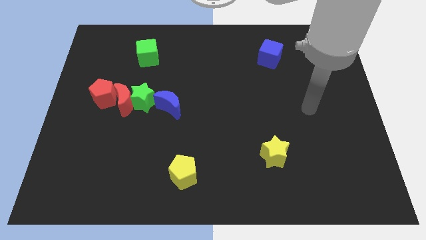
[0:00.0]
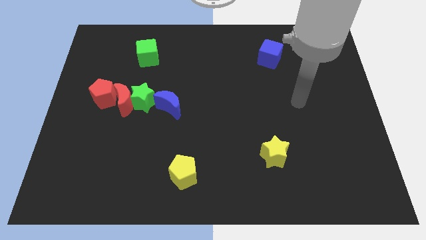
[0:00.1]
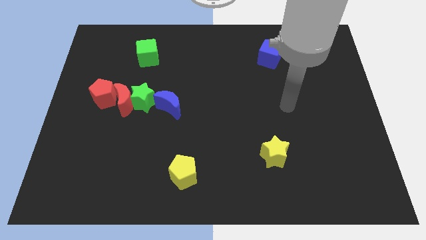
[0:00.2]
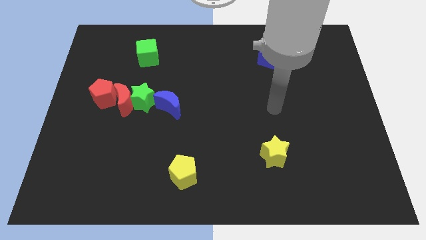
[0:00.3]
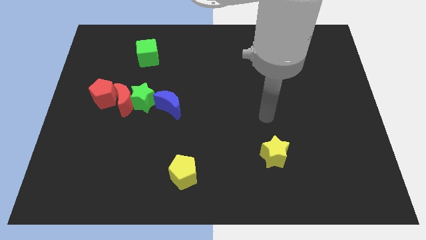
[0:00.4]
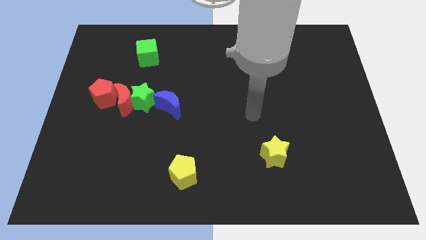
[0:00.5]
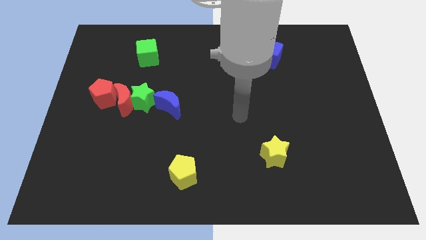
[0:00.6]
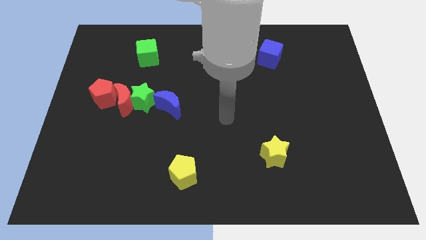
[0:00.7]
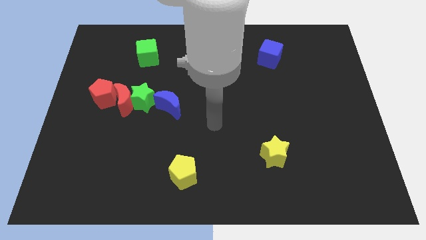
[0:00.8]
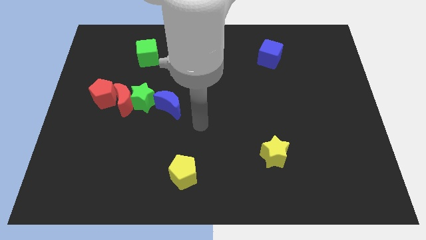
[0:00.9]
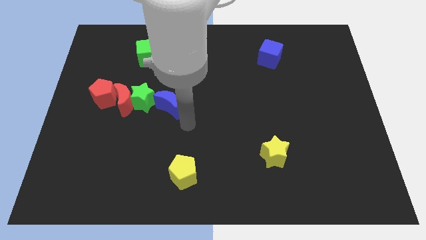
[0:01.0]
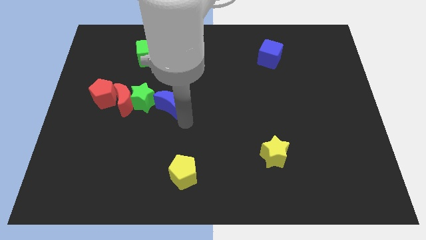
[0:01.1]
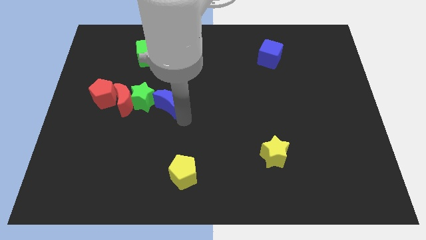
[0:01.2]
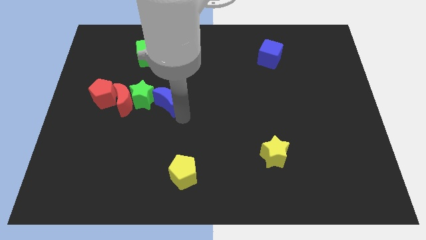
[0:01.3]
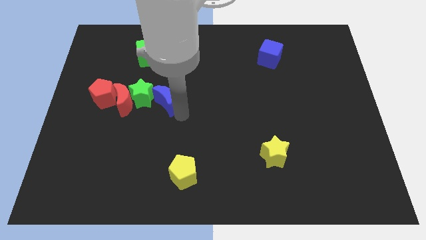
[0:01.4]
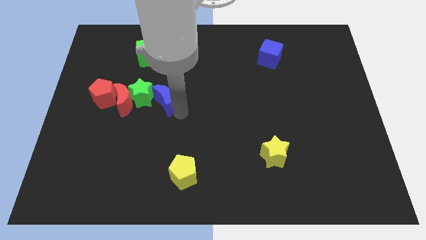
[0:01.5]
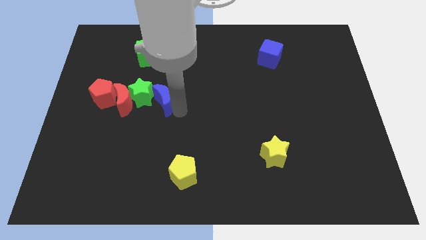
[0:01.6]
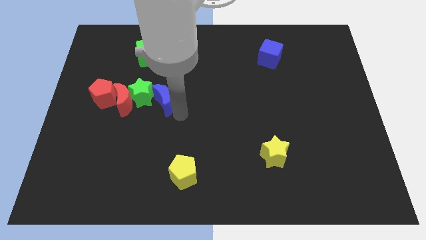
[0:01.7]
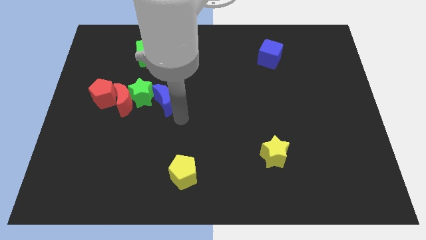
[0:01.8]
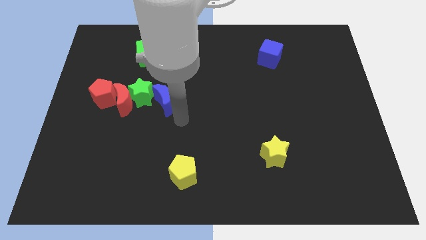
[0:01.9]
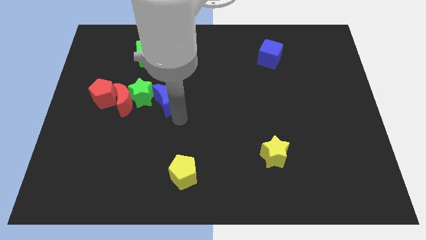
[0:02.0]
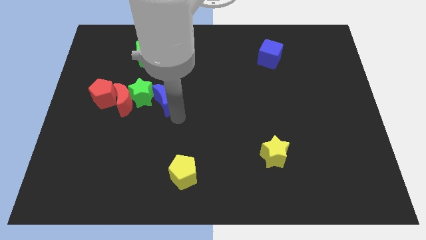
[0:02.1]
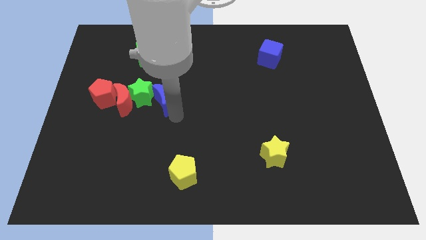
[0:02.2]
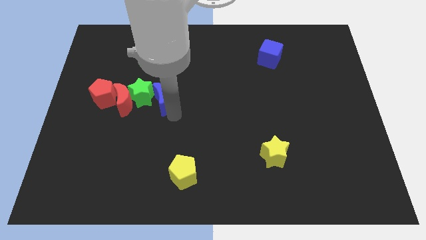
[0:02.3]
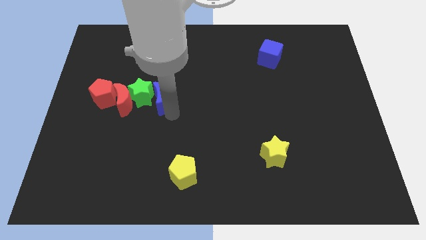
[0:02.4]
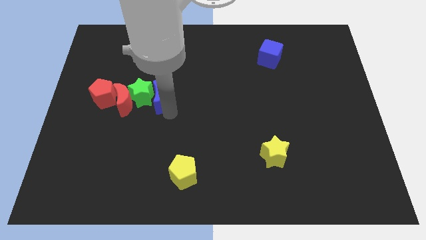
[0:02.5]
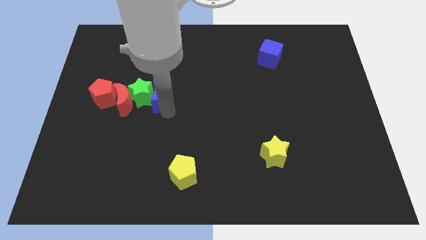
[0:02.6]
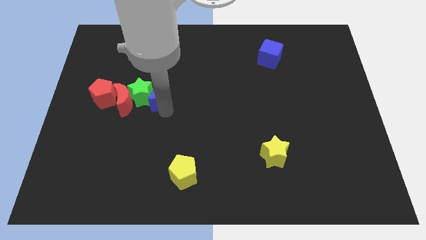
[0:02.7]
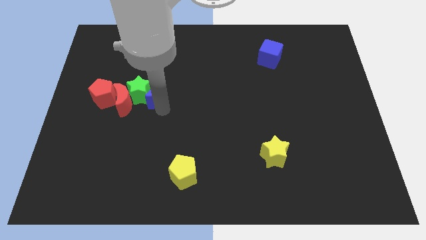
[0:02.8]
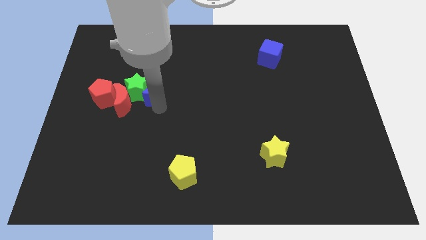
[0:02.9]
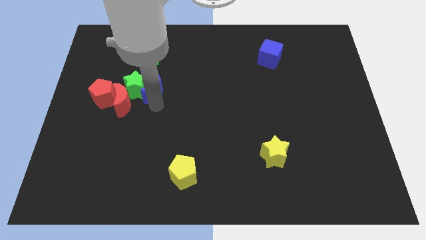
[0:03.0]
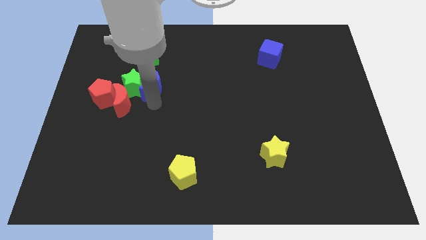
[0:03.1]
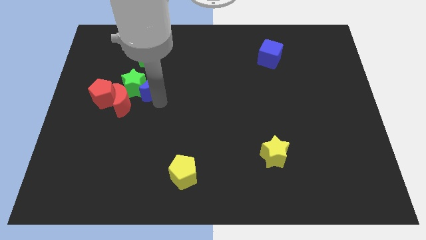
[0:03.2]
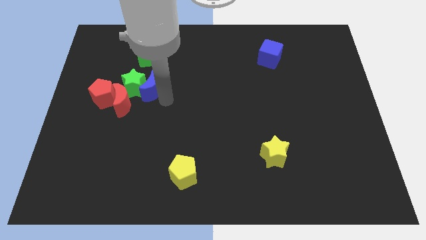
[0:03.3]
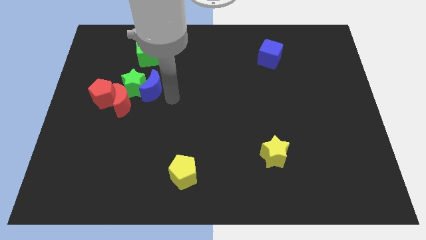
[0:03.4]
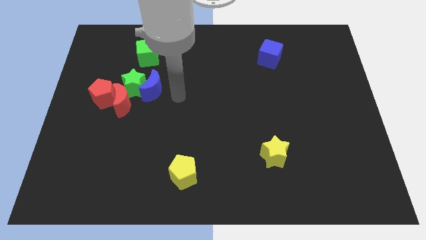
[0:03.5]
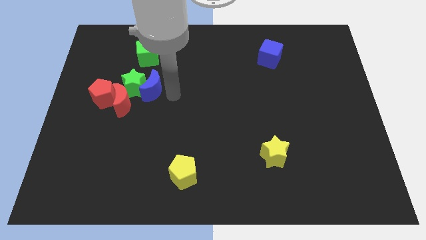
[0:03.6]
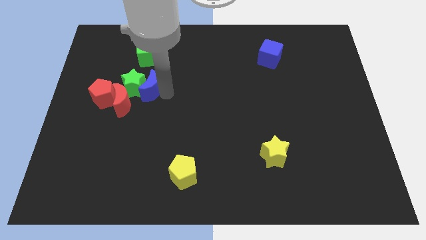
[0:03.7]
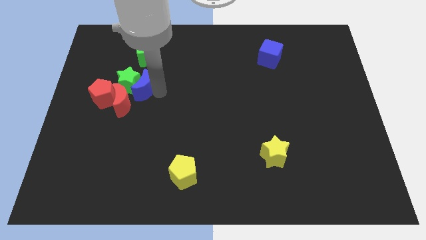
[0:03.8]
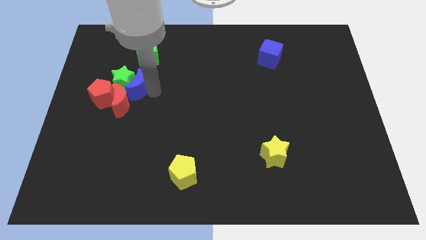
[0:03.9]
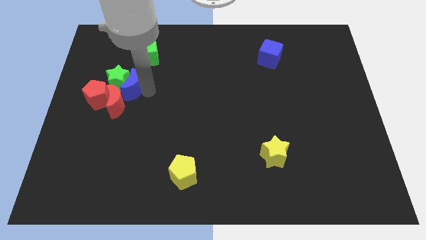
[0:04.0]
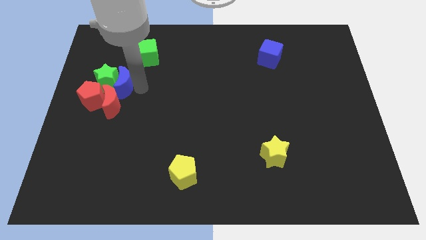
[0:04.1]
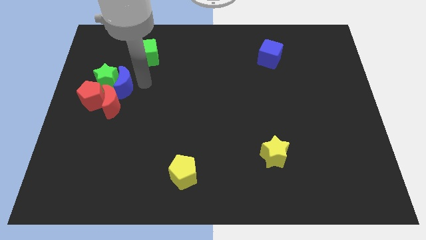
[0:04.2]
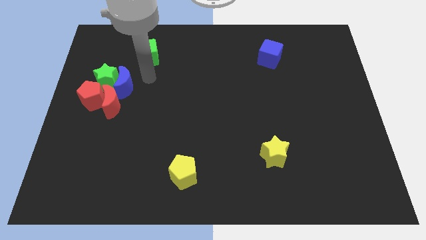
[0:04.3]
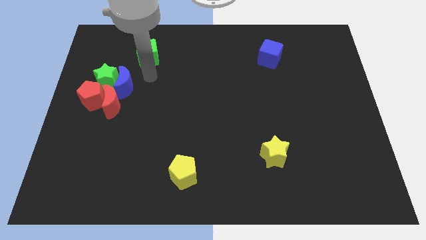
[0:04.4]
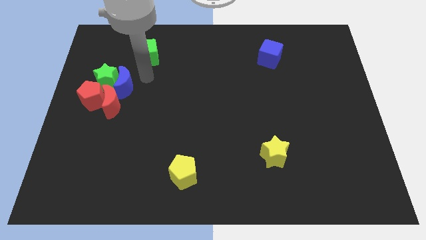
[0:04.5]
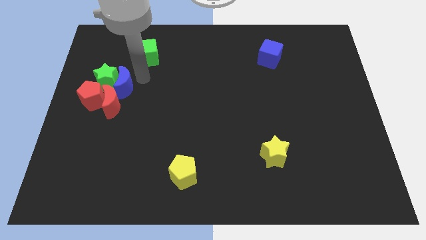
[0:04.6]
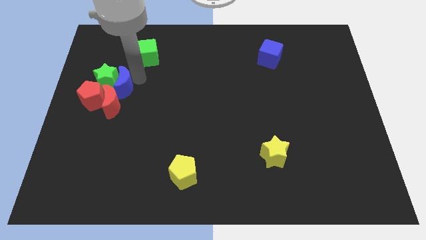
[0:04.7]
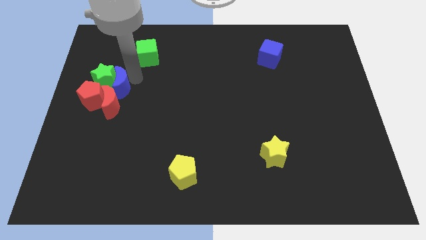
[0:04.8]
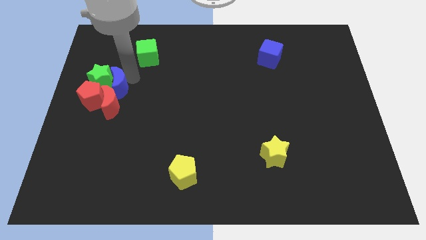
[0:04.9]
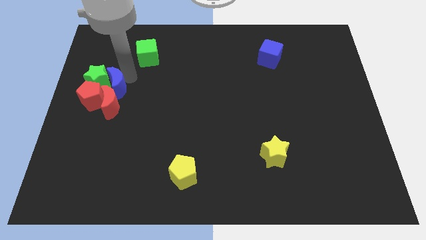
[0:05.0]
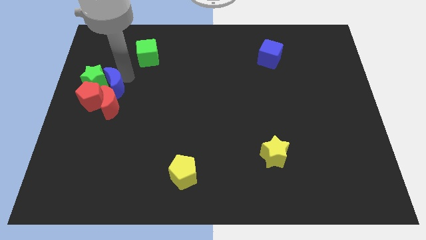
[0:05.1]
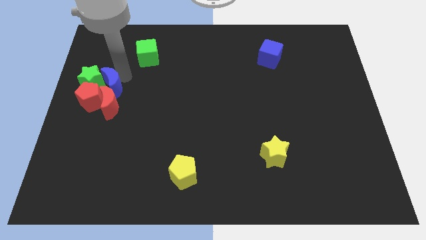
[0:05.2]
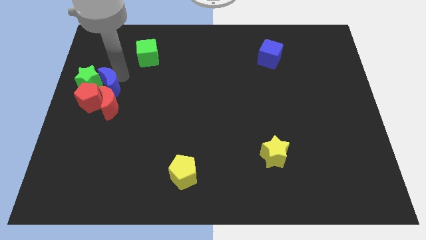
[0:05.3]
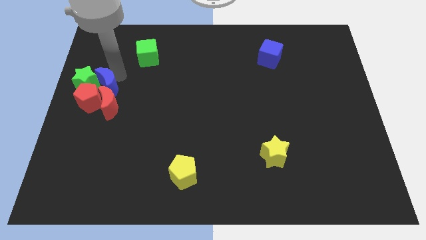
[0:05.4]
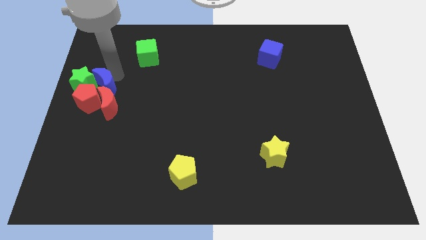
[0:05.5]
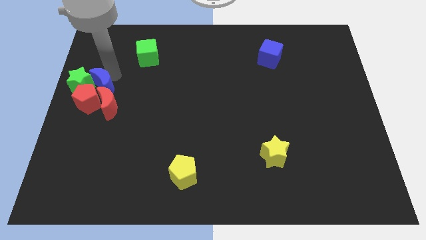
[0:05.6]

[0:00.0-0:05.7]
push the blue moon next to the red pentagon

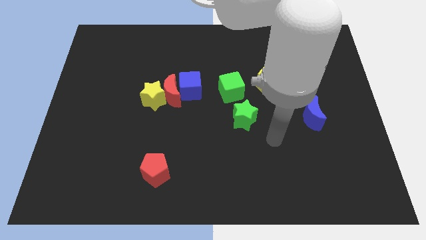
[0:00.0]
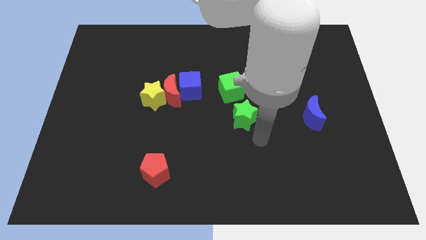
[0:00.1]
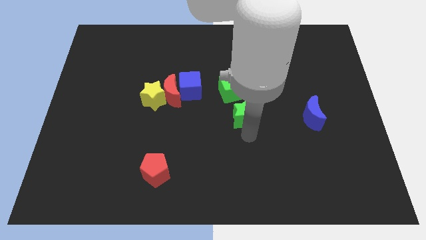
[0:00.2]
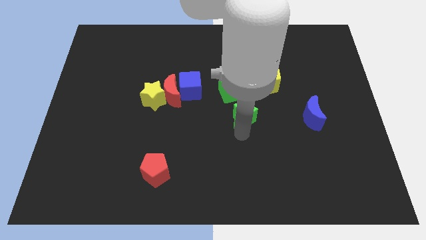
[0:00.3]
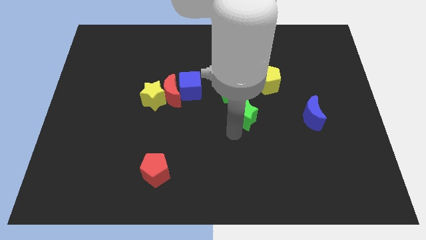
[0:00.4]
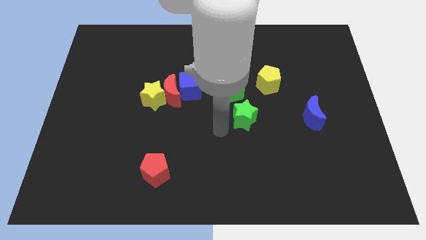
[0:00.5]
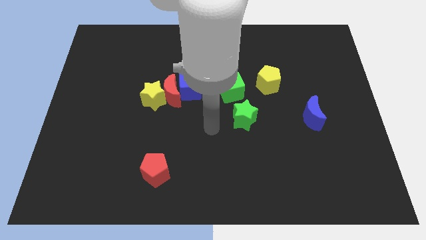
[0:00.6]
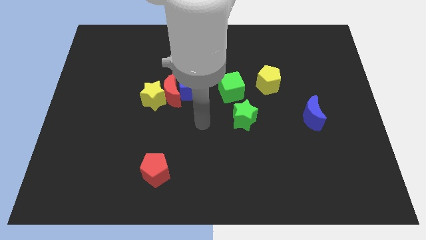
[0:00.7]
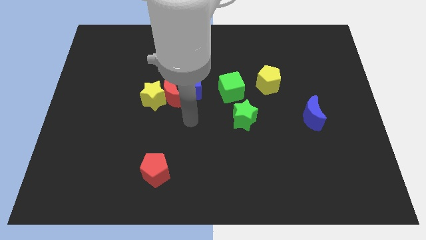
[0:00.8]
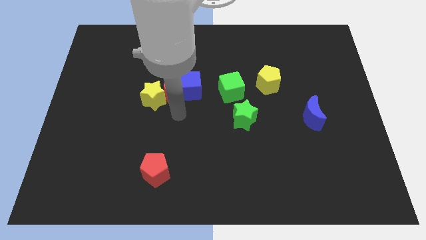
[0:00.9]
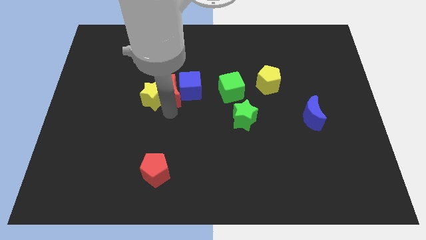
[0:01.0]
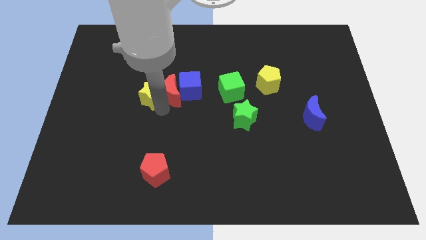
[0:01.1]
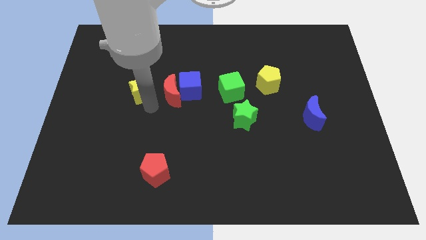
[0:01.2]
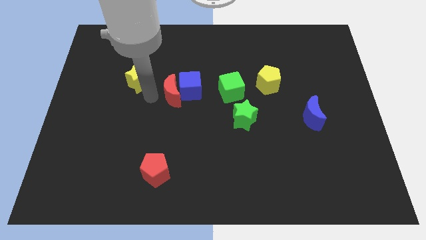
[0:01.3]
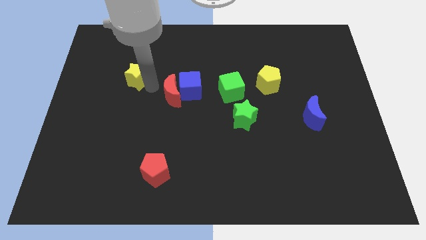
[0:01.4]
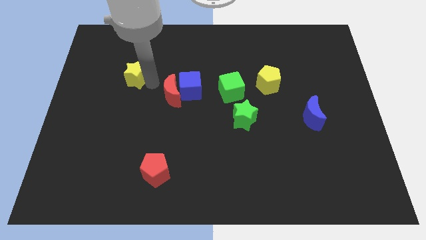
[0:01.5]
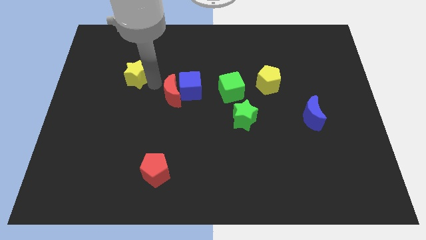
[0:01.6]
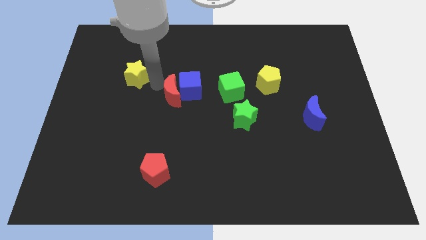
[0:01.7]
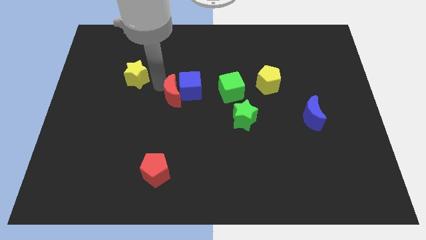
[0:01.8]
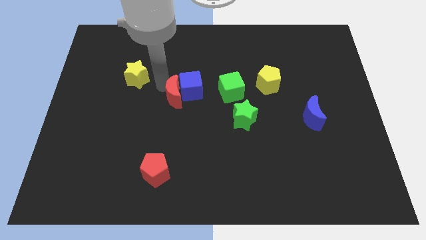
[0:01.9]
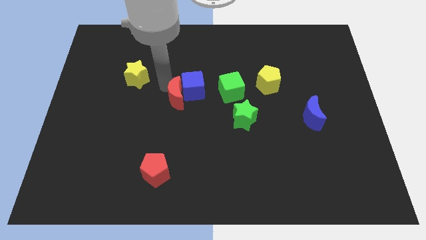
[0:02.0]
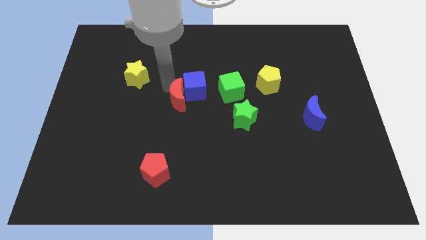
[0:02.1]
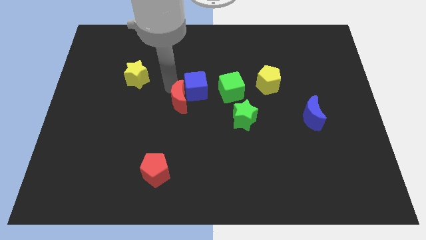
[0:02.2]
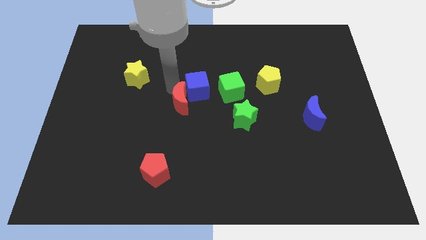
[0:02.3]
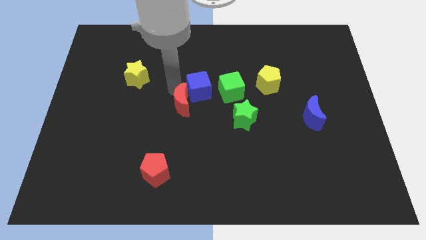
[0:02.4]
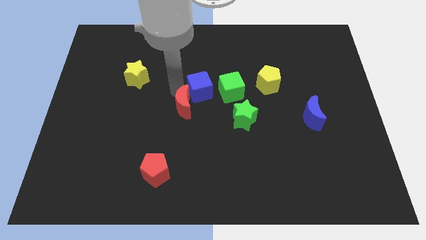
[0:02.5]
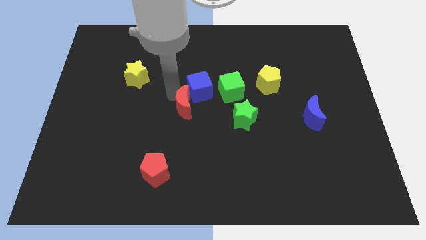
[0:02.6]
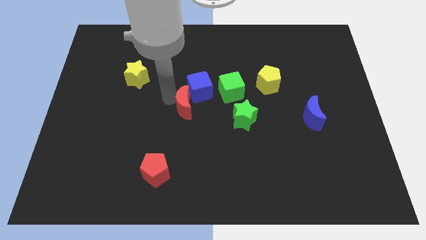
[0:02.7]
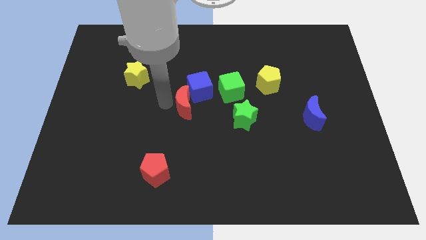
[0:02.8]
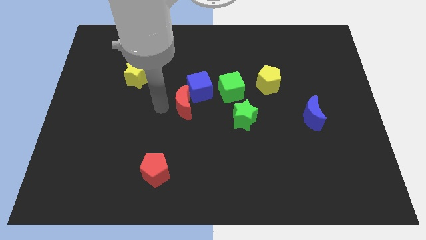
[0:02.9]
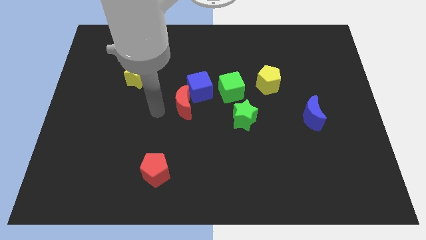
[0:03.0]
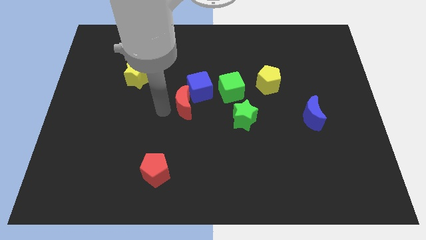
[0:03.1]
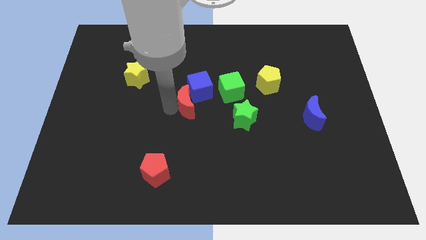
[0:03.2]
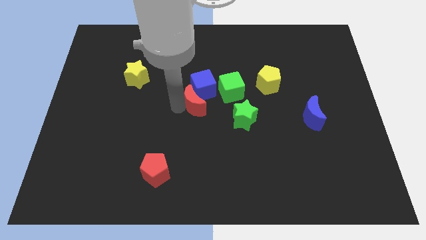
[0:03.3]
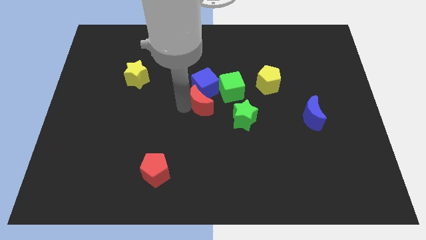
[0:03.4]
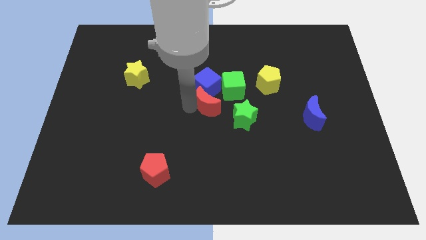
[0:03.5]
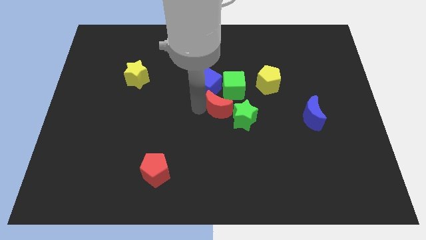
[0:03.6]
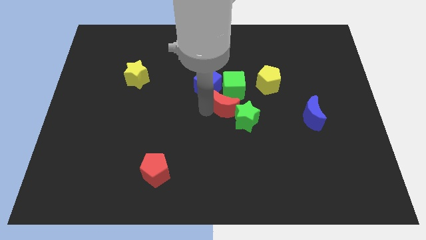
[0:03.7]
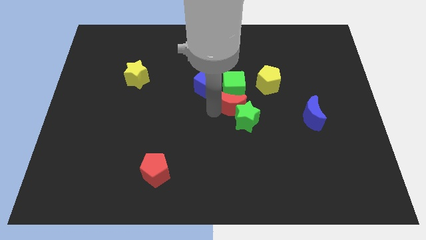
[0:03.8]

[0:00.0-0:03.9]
push the red moon to the green cube
